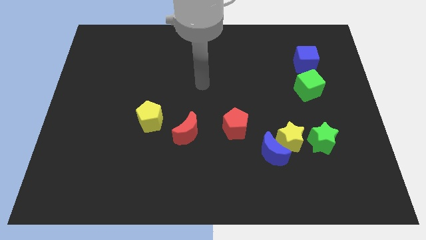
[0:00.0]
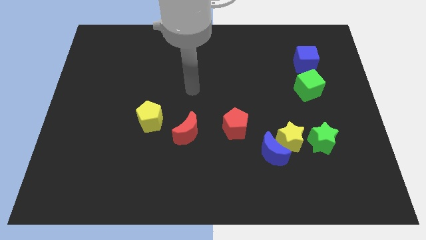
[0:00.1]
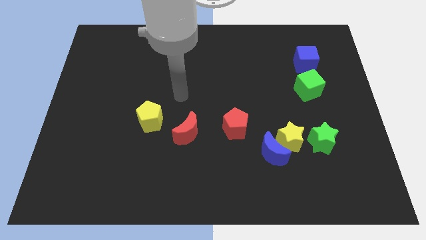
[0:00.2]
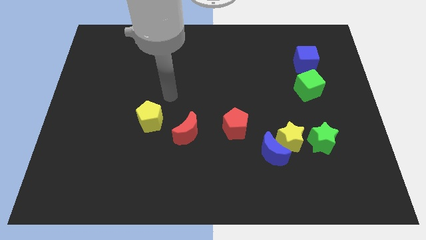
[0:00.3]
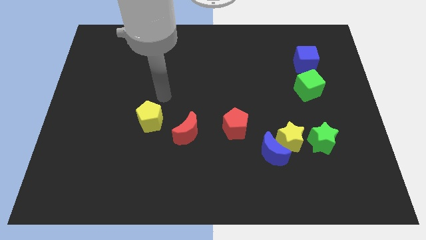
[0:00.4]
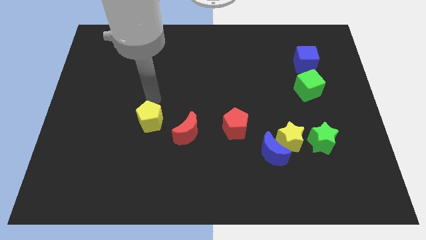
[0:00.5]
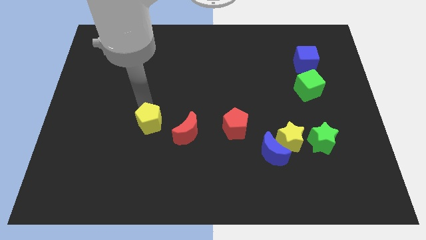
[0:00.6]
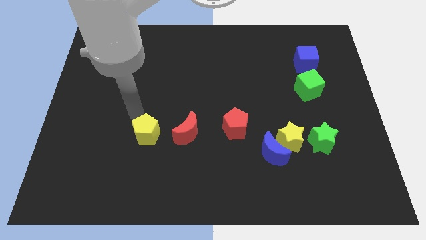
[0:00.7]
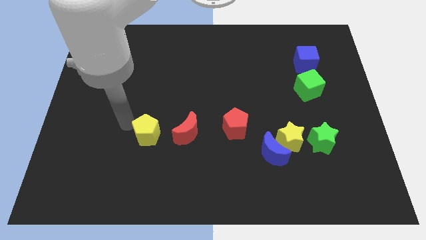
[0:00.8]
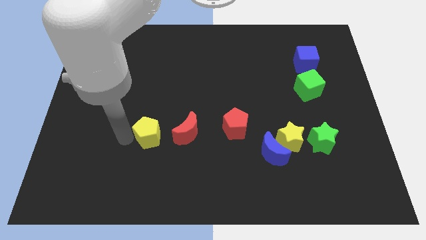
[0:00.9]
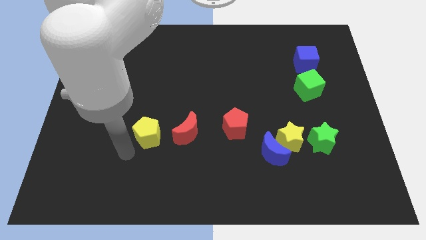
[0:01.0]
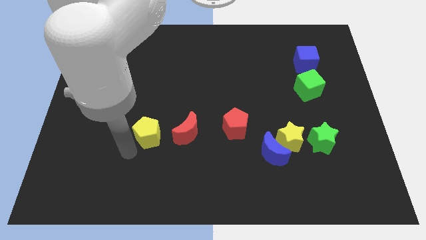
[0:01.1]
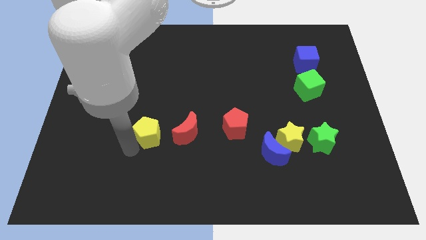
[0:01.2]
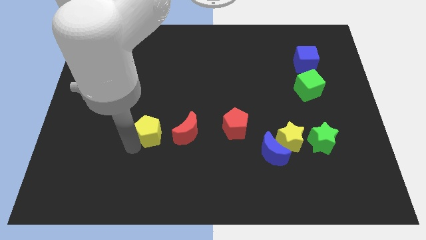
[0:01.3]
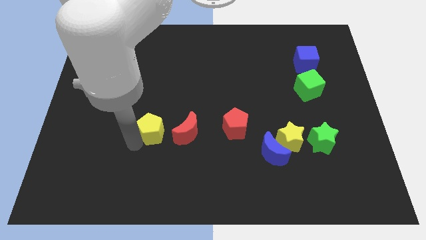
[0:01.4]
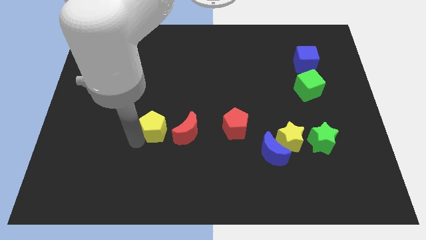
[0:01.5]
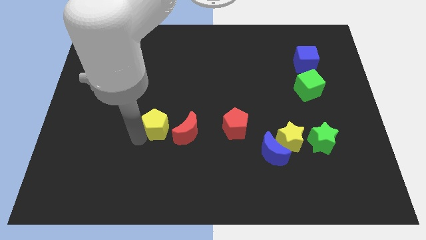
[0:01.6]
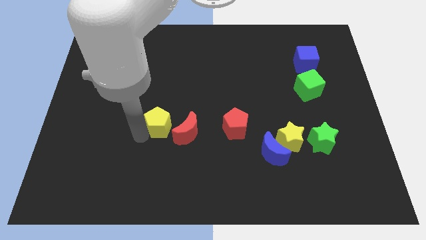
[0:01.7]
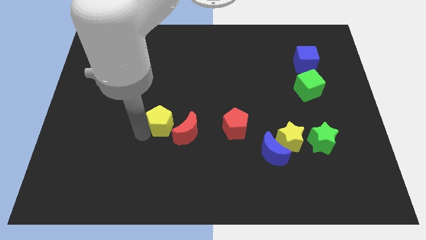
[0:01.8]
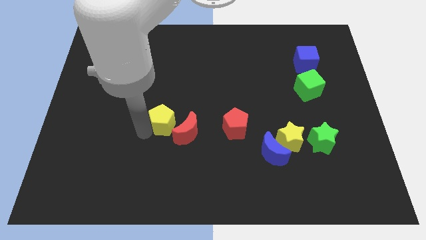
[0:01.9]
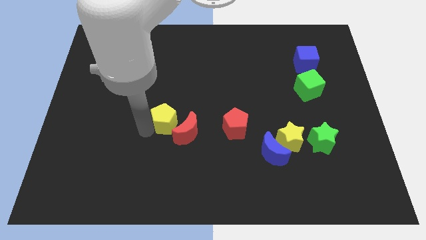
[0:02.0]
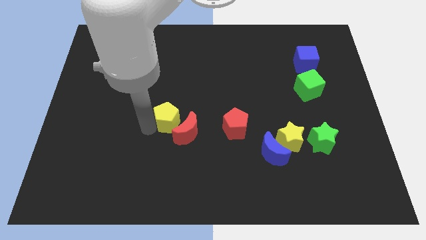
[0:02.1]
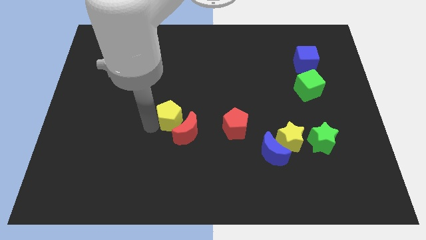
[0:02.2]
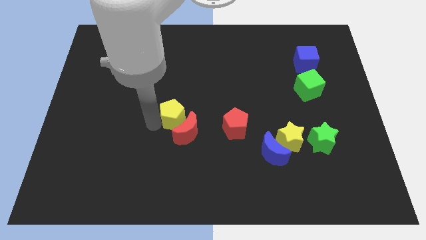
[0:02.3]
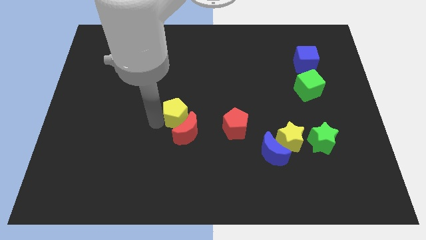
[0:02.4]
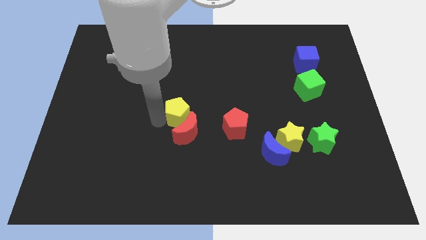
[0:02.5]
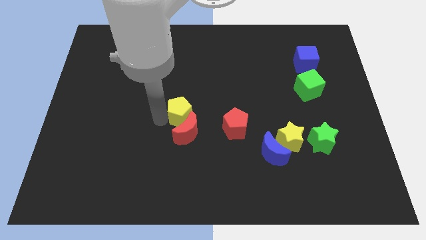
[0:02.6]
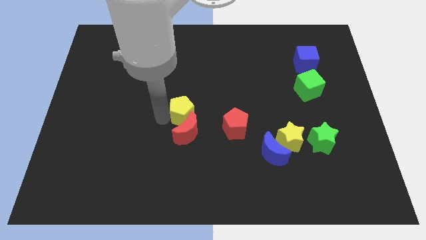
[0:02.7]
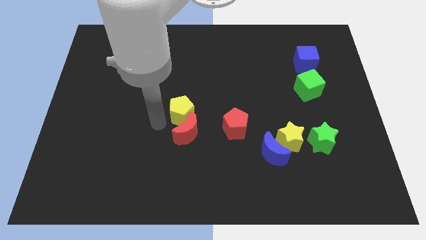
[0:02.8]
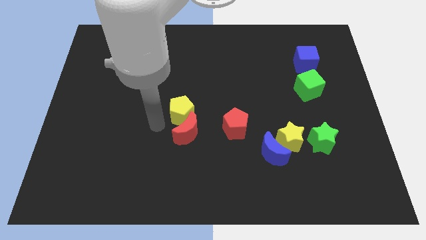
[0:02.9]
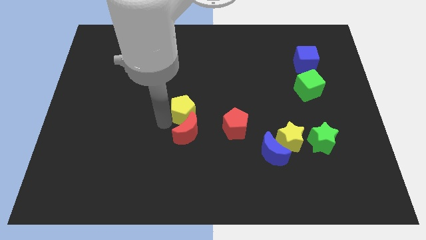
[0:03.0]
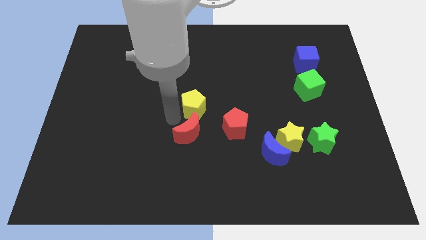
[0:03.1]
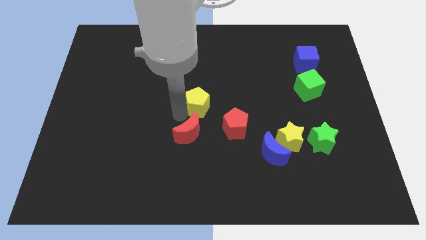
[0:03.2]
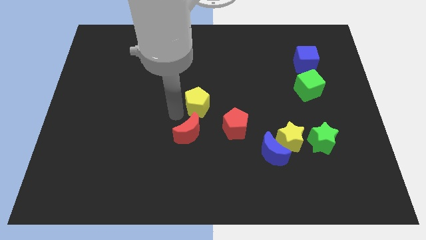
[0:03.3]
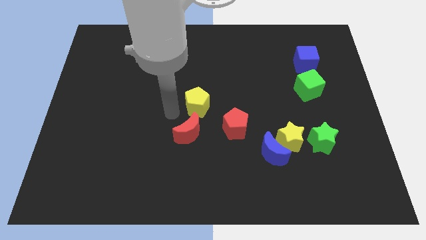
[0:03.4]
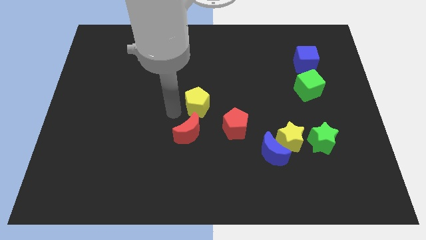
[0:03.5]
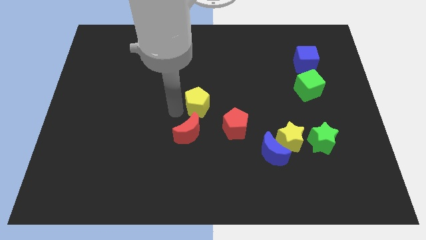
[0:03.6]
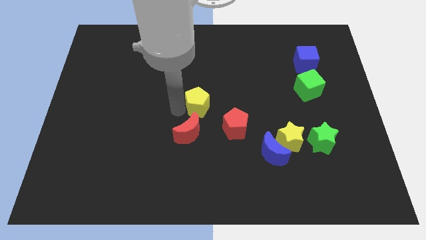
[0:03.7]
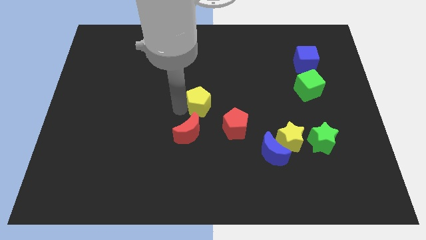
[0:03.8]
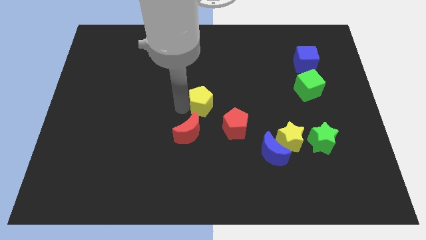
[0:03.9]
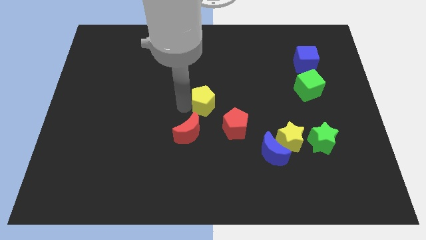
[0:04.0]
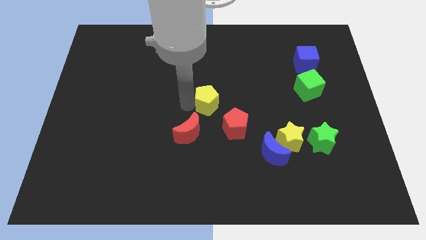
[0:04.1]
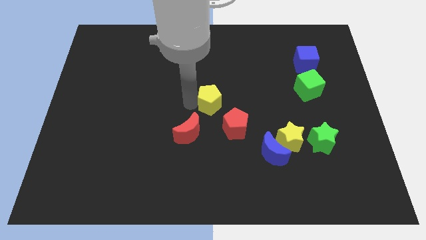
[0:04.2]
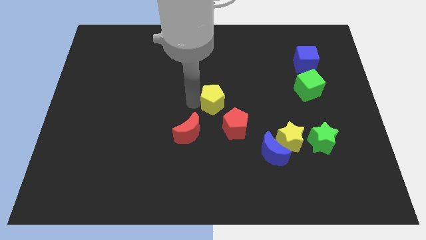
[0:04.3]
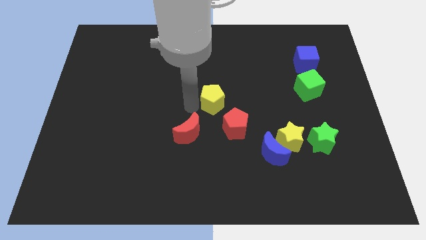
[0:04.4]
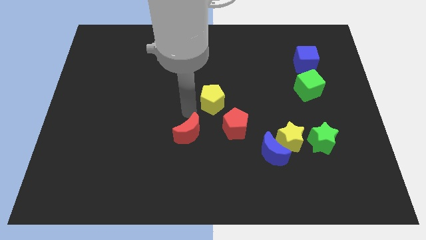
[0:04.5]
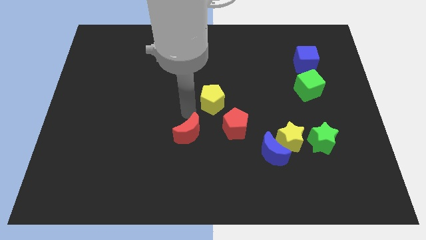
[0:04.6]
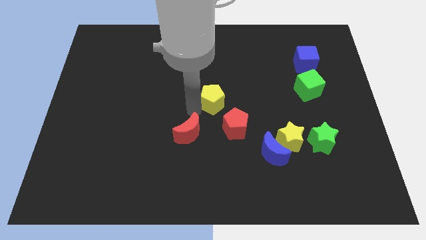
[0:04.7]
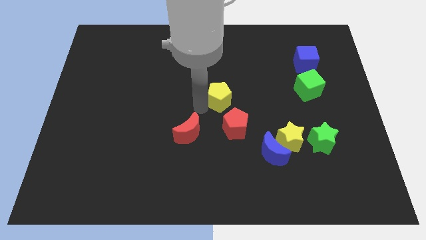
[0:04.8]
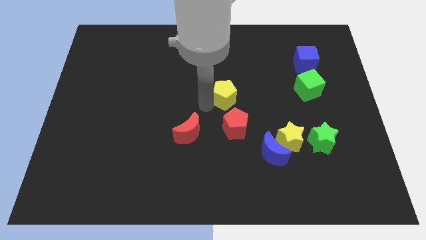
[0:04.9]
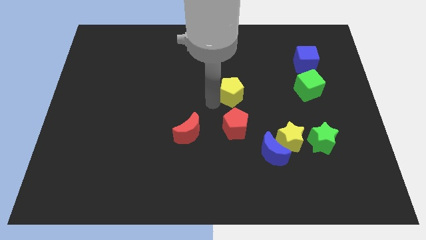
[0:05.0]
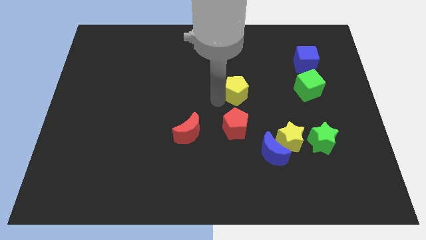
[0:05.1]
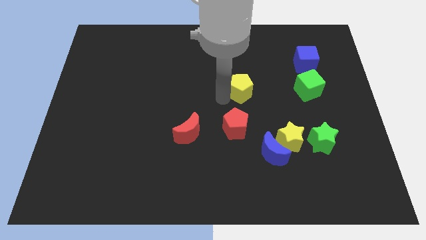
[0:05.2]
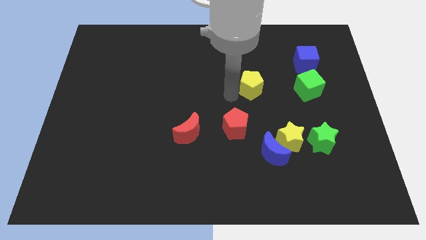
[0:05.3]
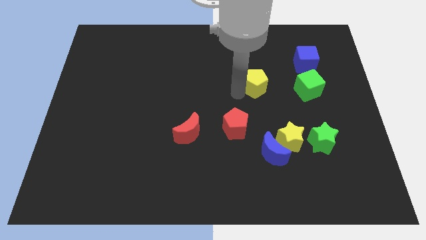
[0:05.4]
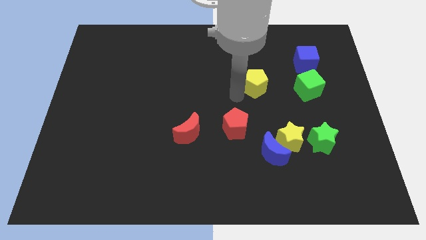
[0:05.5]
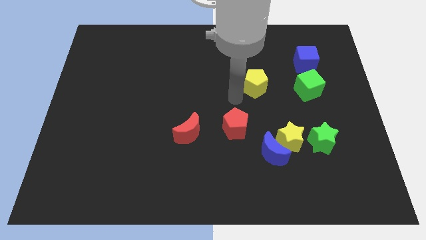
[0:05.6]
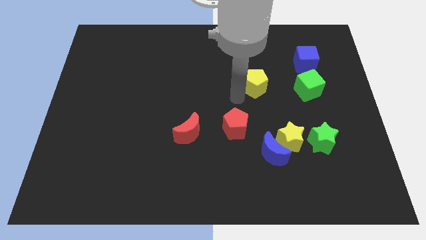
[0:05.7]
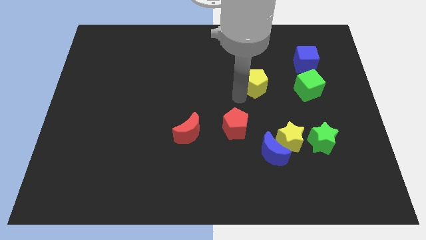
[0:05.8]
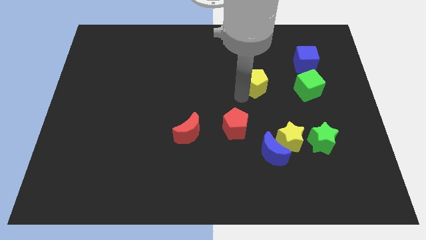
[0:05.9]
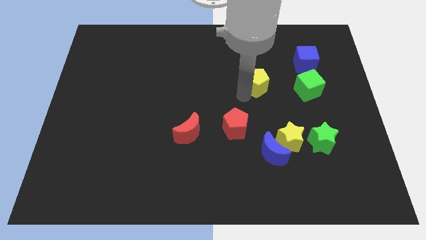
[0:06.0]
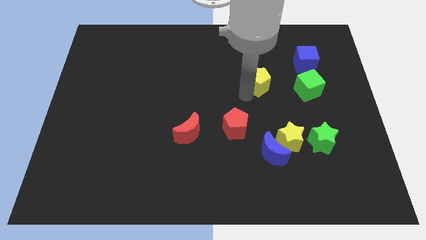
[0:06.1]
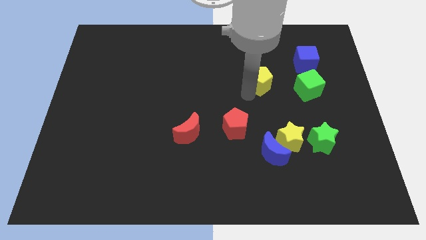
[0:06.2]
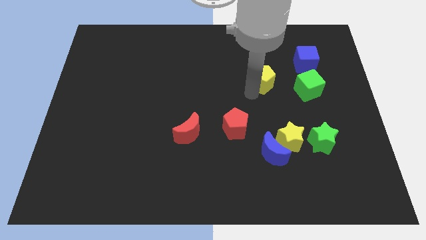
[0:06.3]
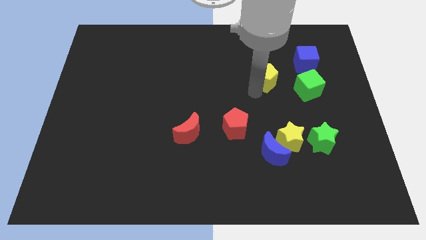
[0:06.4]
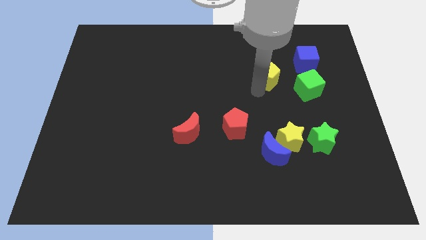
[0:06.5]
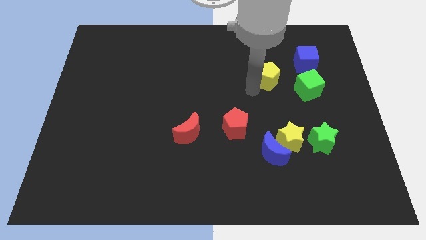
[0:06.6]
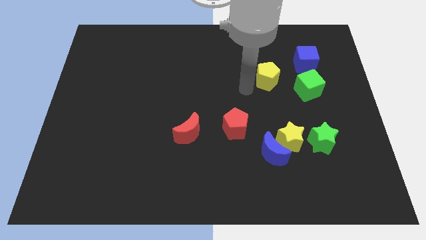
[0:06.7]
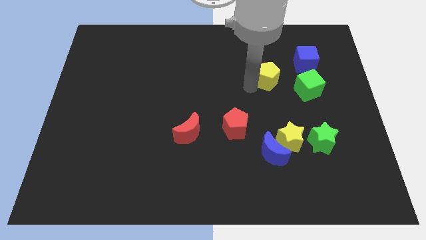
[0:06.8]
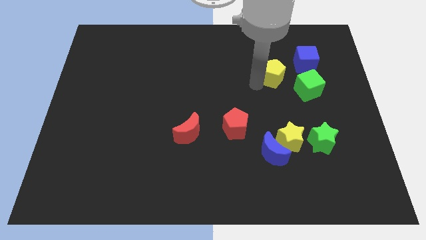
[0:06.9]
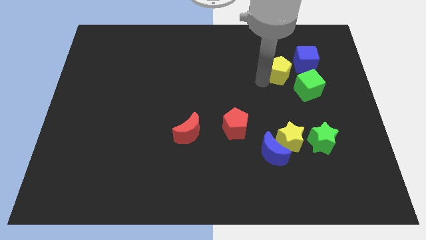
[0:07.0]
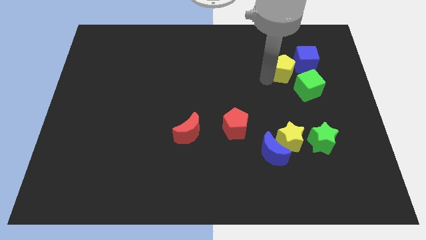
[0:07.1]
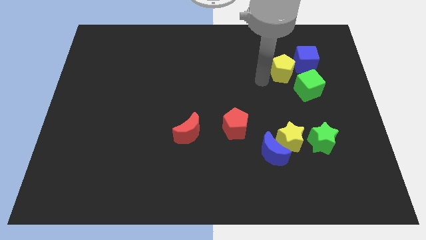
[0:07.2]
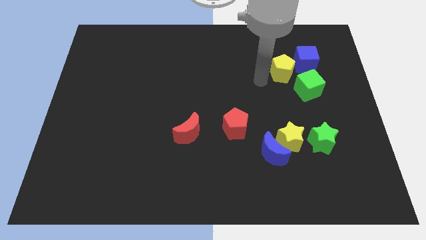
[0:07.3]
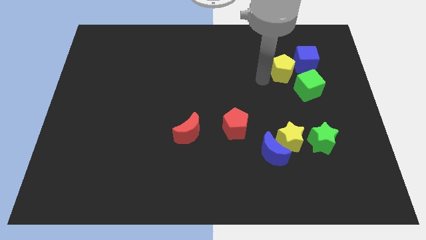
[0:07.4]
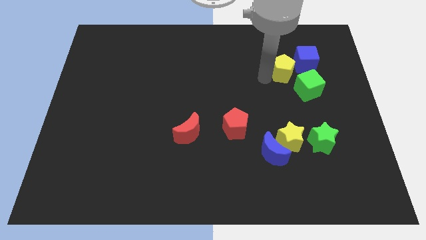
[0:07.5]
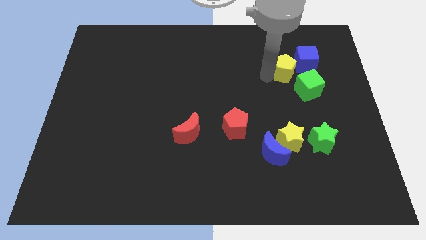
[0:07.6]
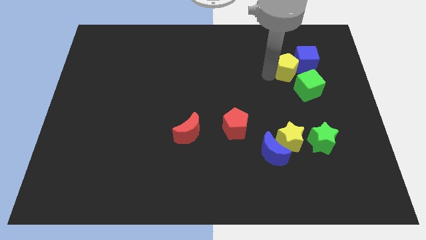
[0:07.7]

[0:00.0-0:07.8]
slide the yellow pentagon to the blue cube
